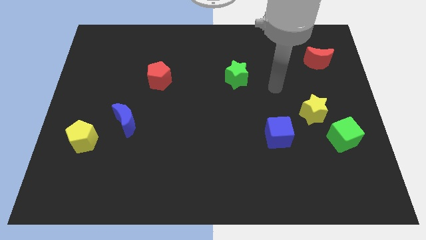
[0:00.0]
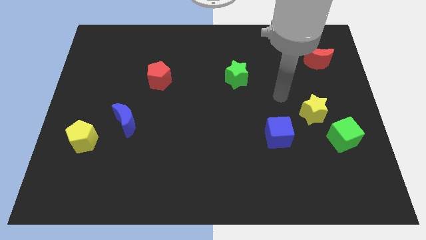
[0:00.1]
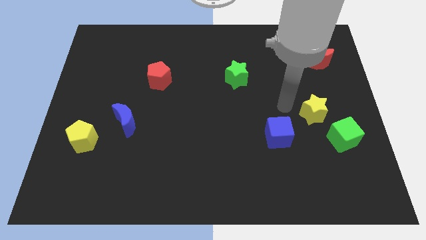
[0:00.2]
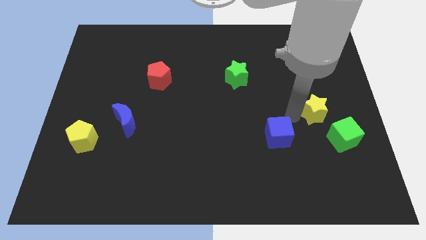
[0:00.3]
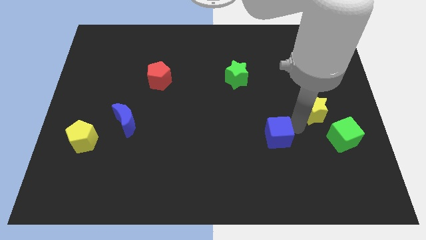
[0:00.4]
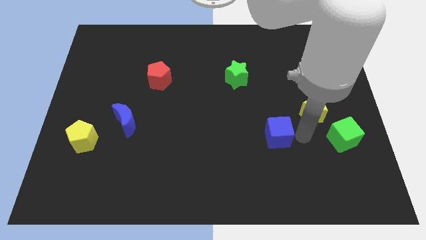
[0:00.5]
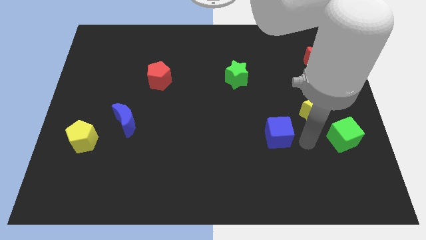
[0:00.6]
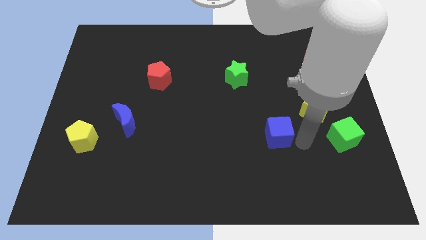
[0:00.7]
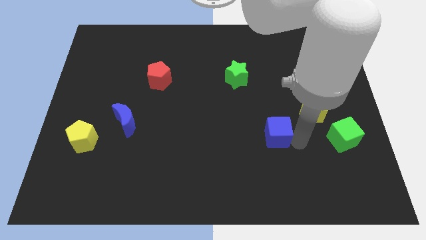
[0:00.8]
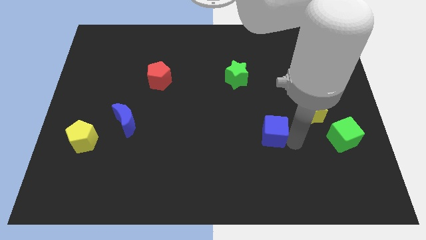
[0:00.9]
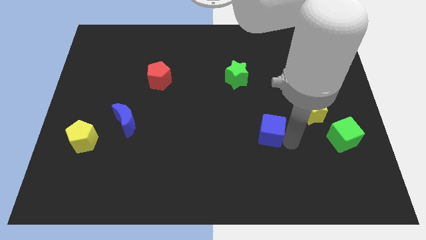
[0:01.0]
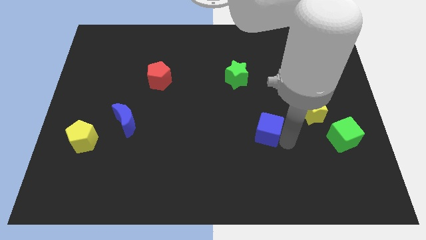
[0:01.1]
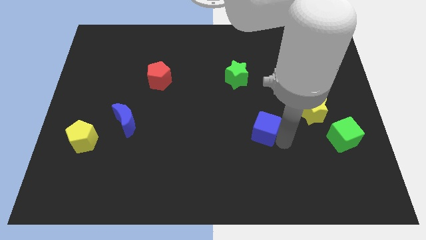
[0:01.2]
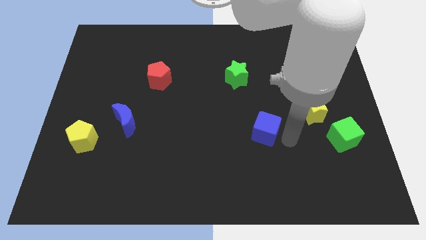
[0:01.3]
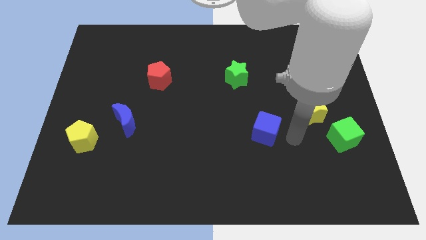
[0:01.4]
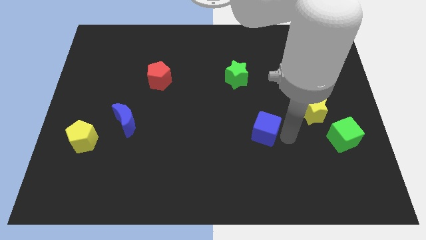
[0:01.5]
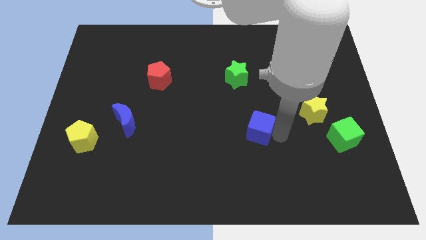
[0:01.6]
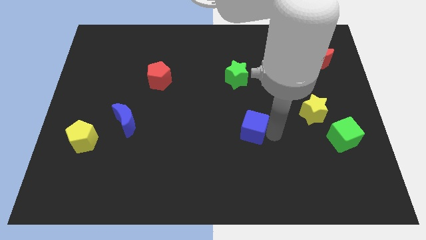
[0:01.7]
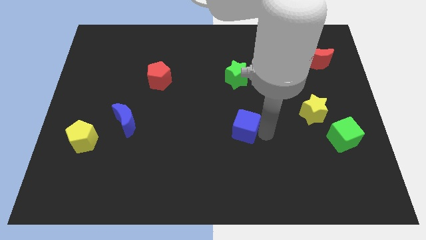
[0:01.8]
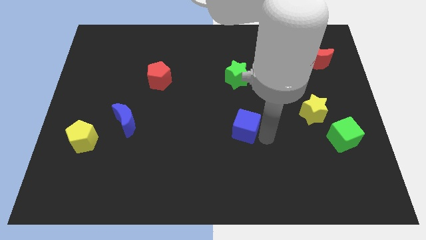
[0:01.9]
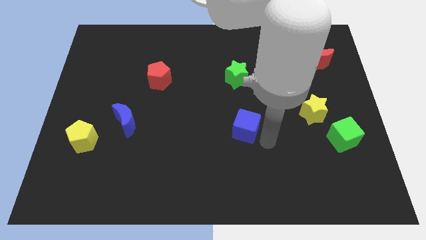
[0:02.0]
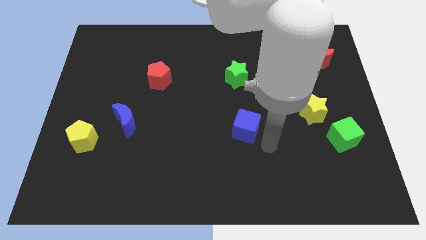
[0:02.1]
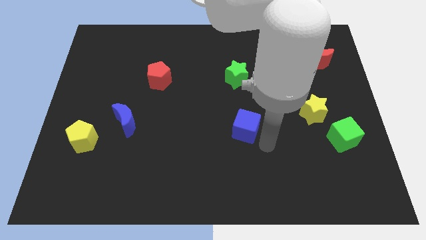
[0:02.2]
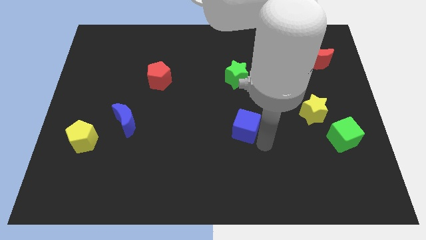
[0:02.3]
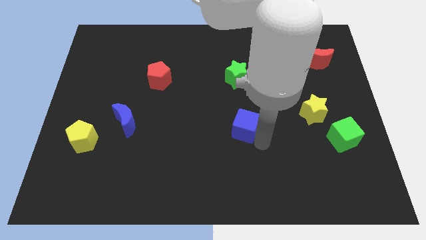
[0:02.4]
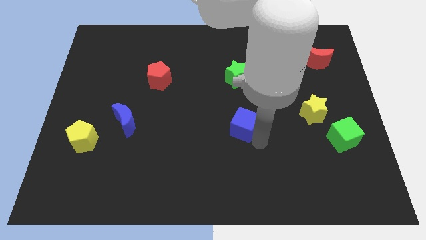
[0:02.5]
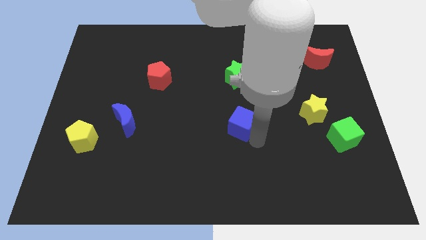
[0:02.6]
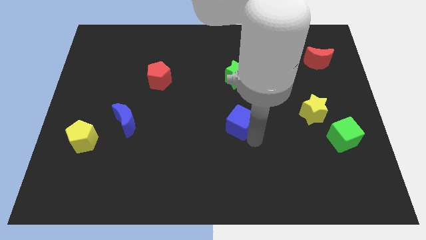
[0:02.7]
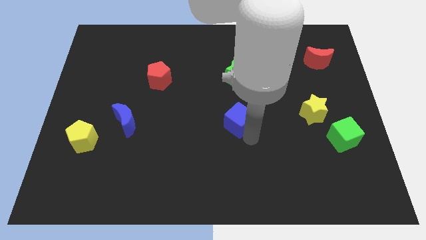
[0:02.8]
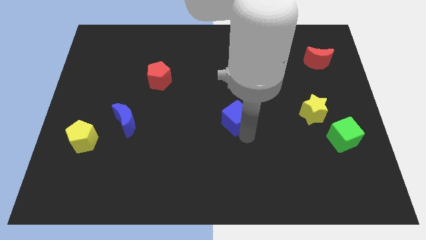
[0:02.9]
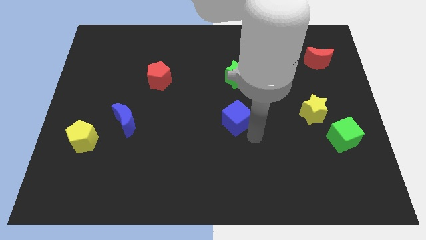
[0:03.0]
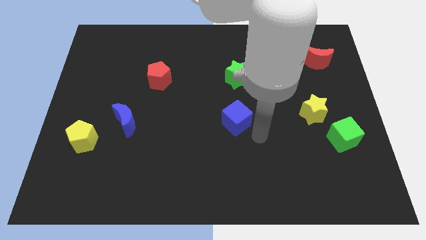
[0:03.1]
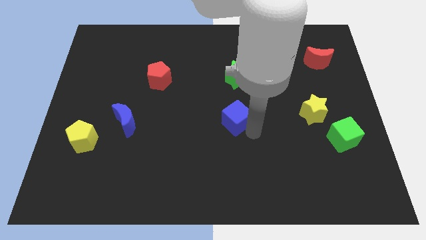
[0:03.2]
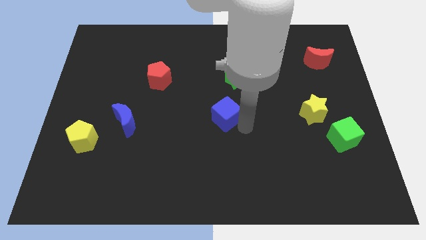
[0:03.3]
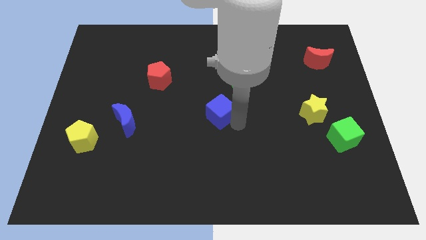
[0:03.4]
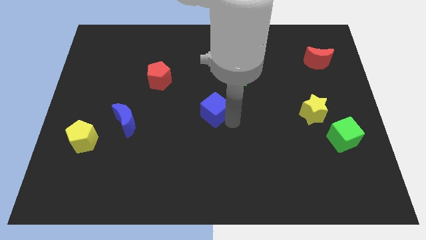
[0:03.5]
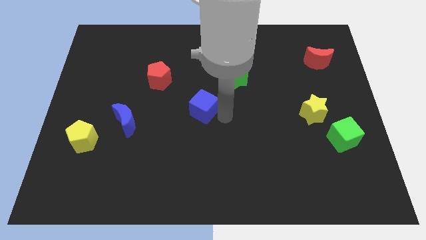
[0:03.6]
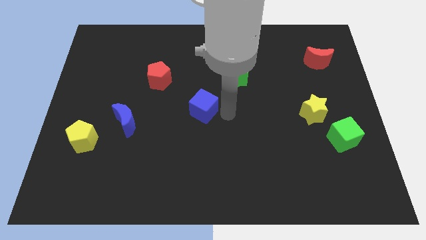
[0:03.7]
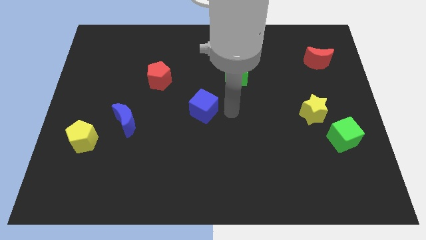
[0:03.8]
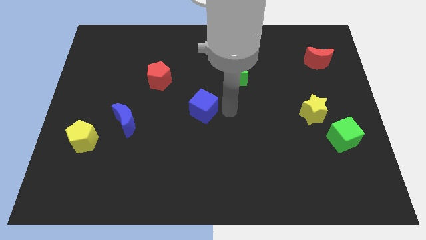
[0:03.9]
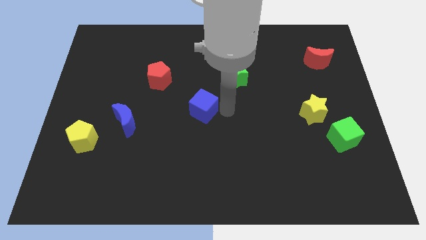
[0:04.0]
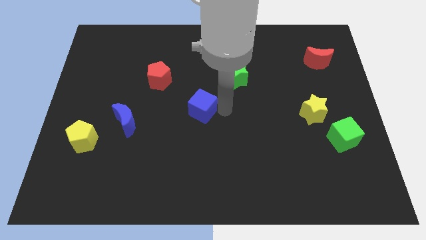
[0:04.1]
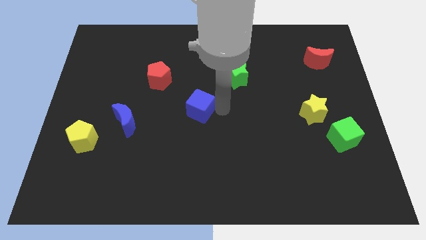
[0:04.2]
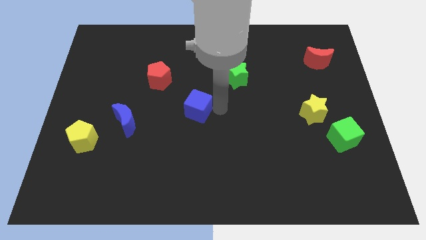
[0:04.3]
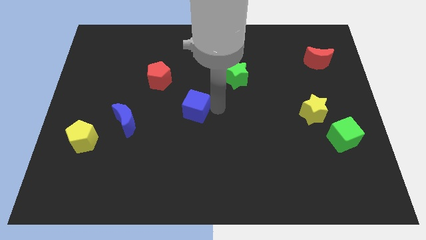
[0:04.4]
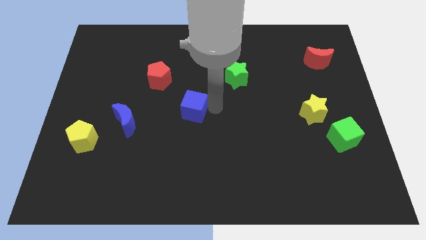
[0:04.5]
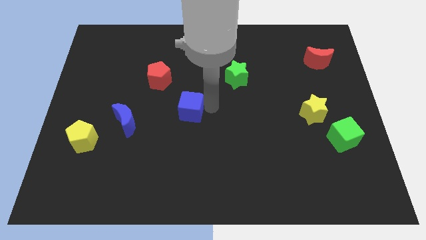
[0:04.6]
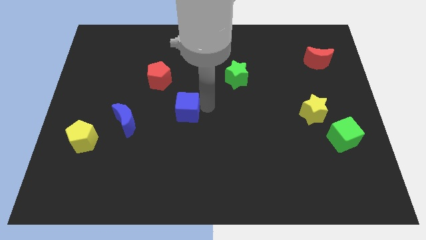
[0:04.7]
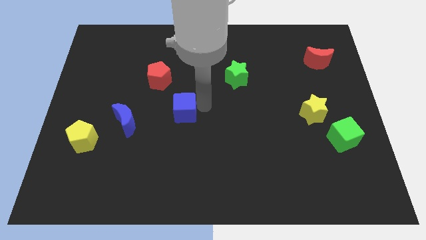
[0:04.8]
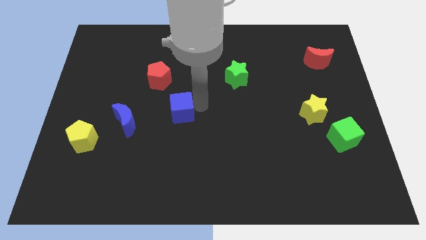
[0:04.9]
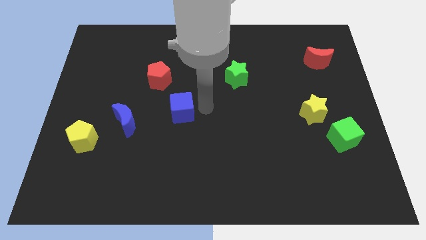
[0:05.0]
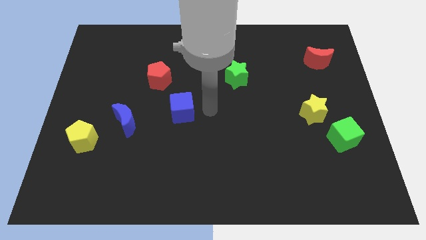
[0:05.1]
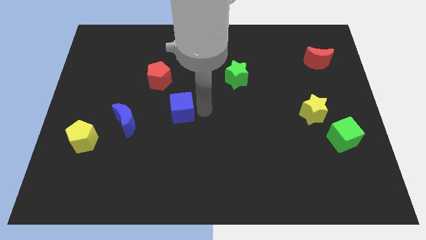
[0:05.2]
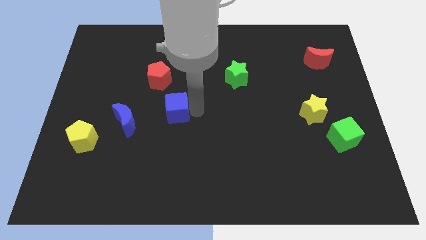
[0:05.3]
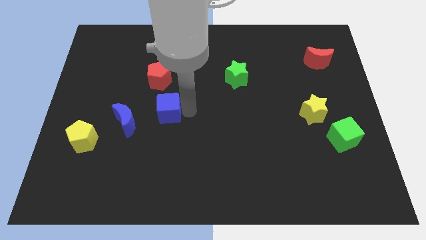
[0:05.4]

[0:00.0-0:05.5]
move the blue cube below the red pentagon

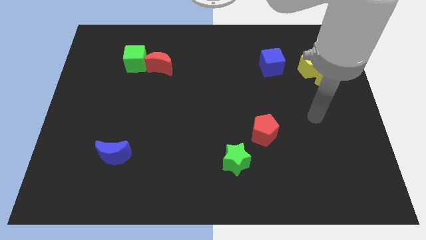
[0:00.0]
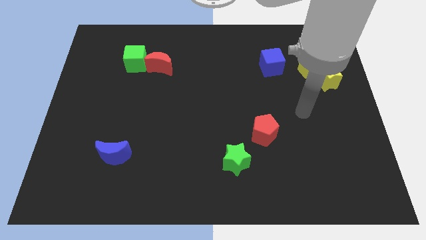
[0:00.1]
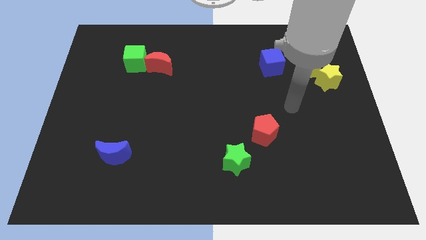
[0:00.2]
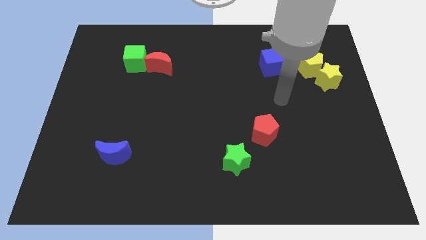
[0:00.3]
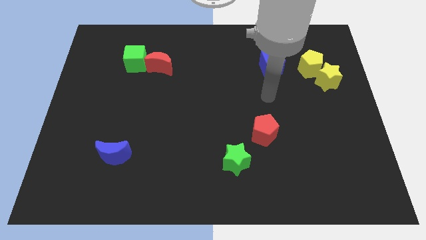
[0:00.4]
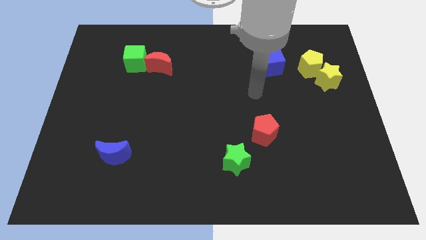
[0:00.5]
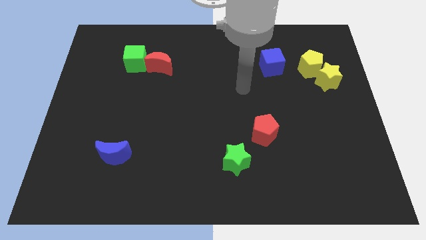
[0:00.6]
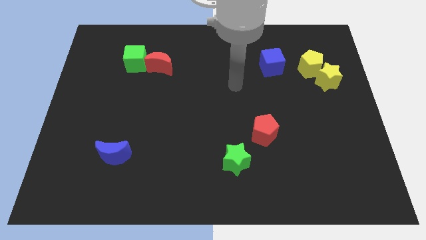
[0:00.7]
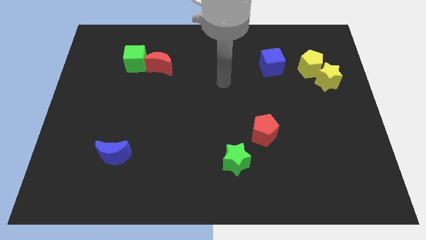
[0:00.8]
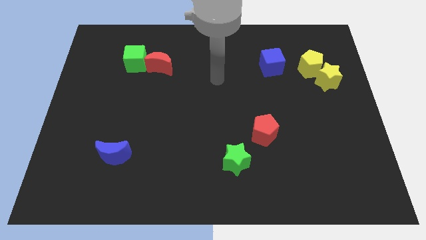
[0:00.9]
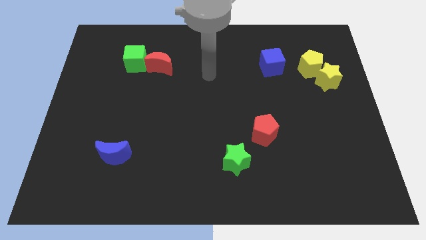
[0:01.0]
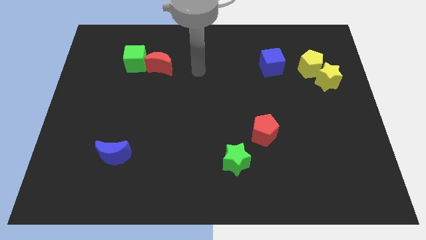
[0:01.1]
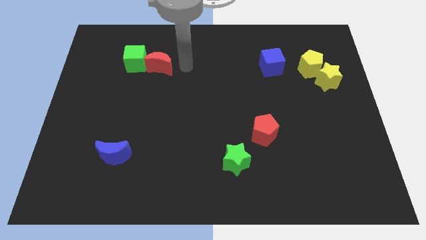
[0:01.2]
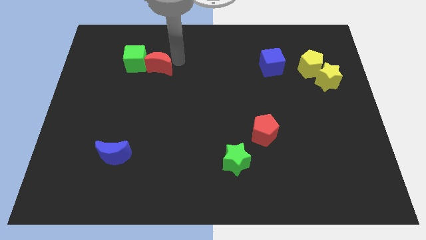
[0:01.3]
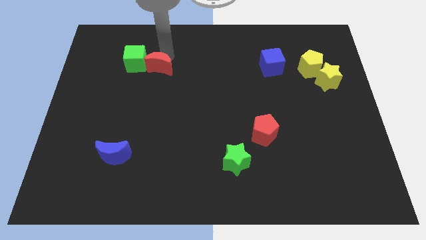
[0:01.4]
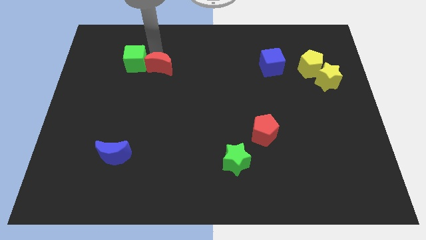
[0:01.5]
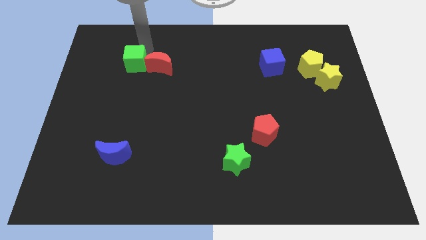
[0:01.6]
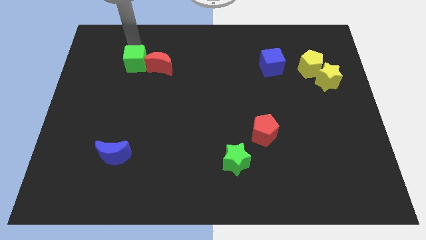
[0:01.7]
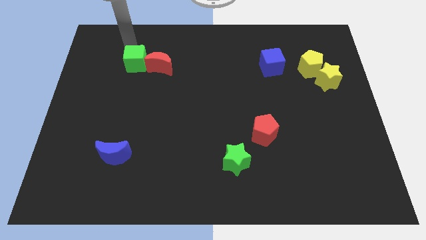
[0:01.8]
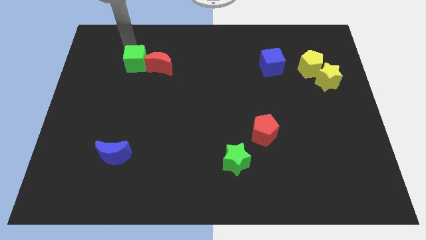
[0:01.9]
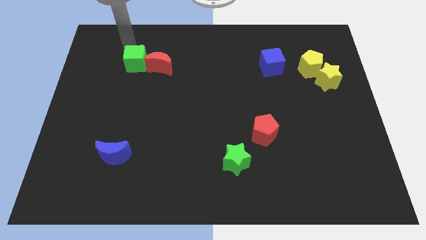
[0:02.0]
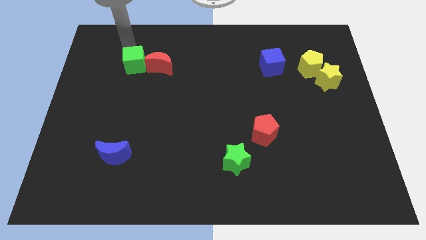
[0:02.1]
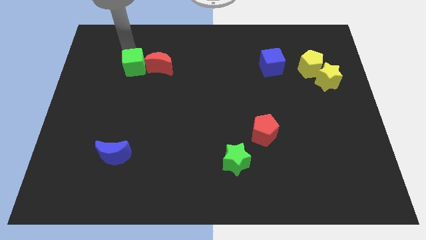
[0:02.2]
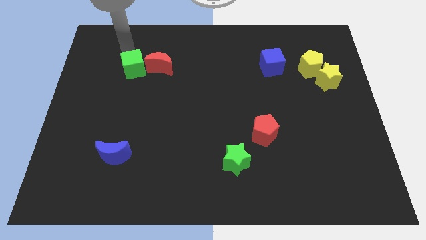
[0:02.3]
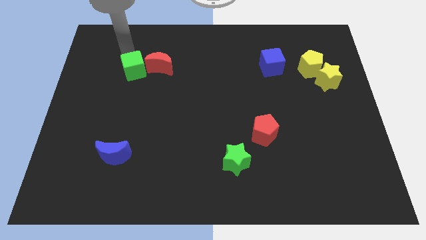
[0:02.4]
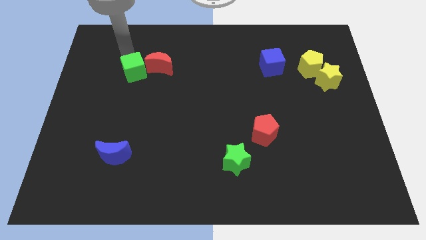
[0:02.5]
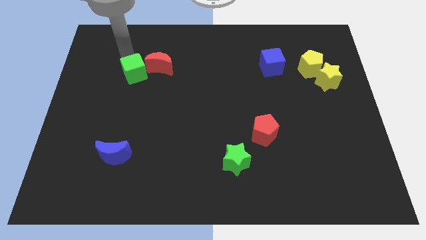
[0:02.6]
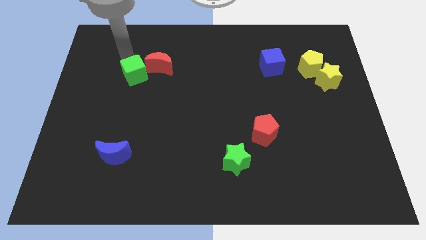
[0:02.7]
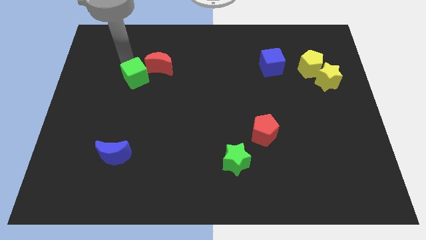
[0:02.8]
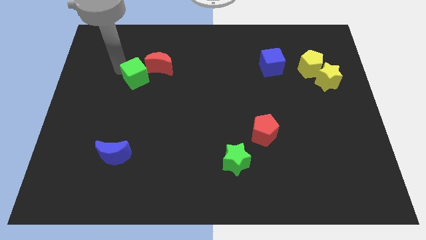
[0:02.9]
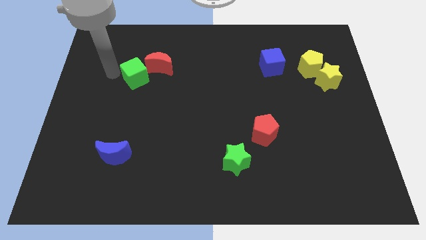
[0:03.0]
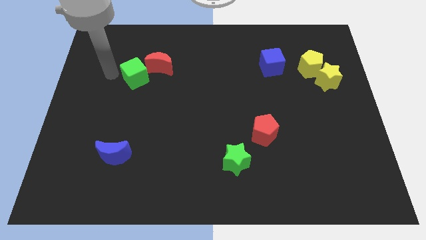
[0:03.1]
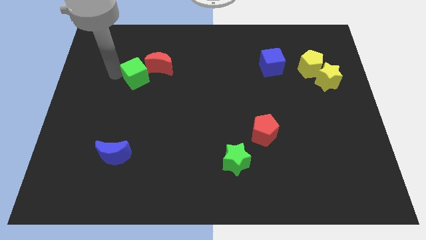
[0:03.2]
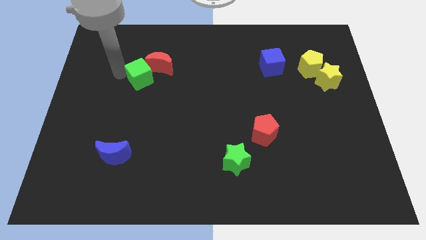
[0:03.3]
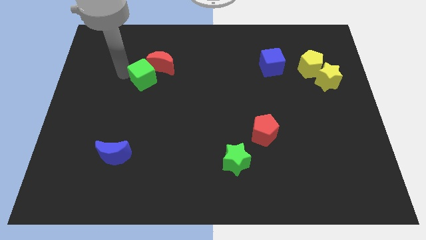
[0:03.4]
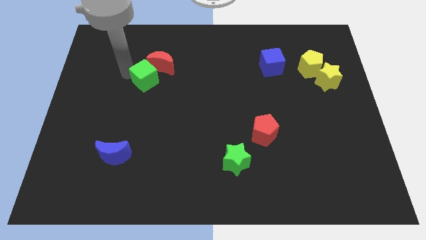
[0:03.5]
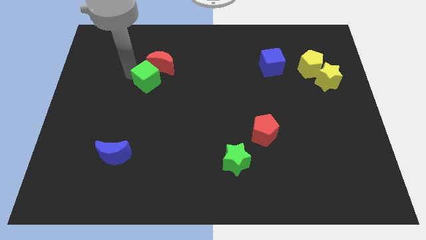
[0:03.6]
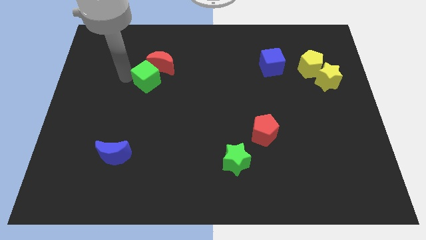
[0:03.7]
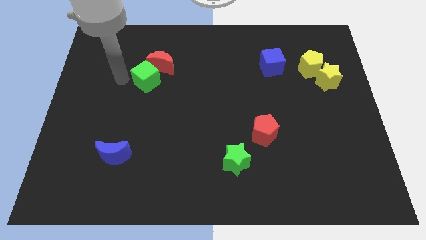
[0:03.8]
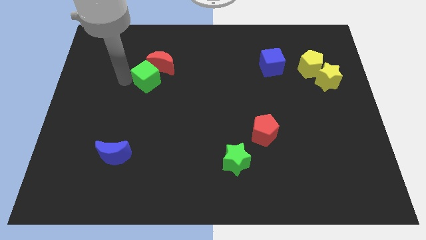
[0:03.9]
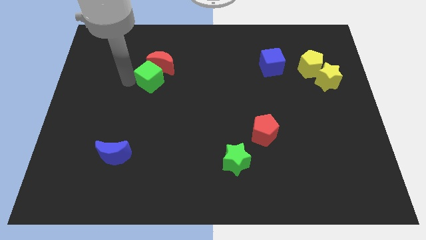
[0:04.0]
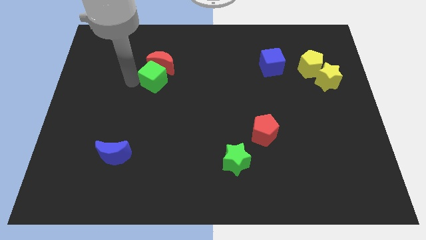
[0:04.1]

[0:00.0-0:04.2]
push the green cube to the bottom right side of the red moon
